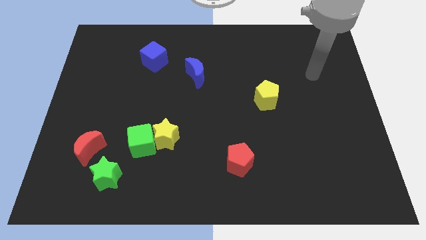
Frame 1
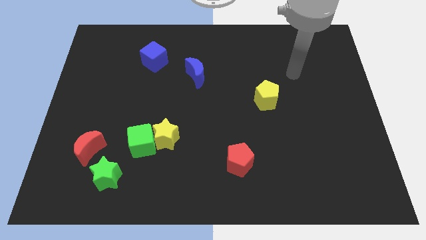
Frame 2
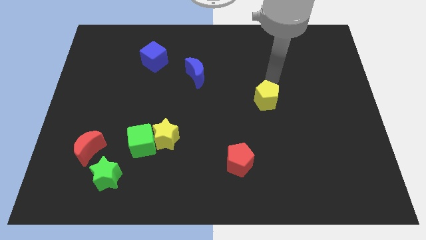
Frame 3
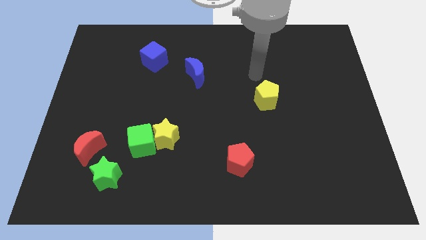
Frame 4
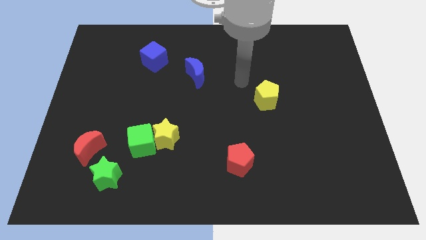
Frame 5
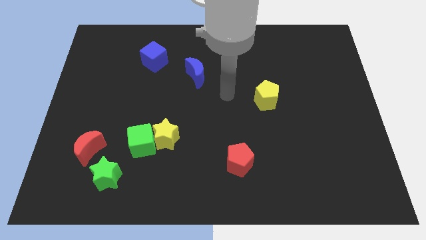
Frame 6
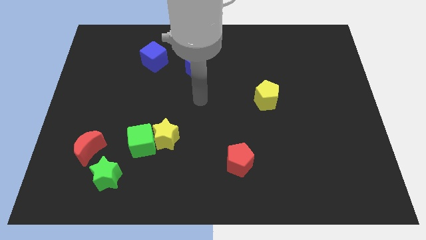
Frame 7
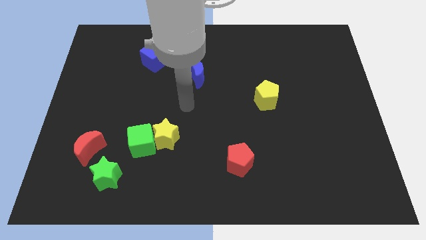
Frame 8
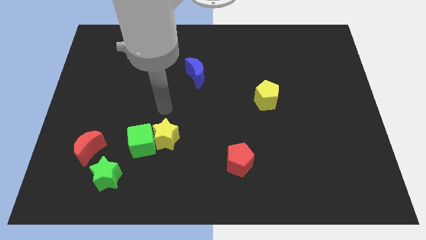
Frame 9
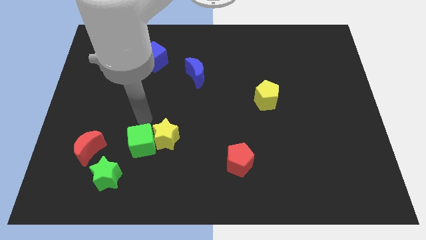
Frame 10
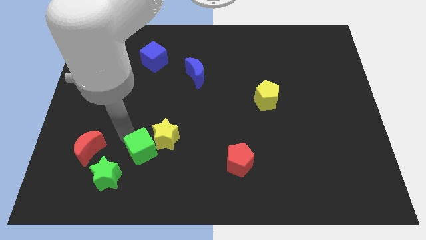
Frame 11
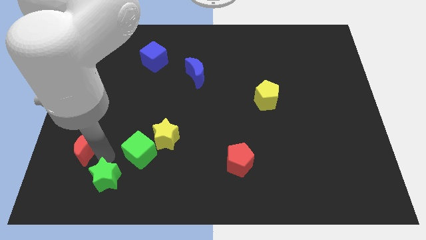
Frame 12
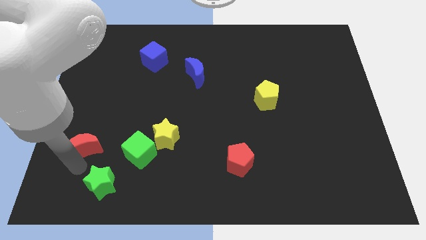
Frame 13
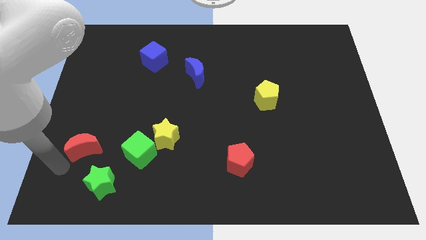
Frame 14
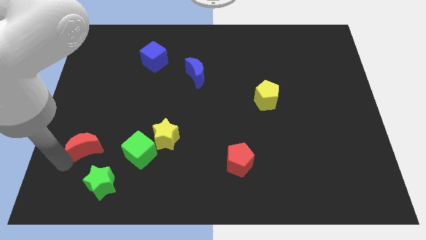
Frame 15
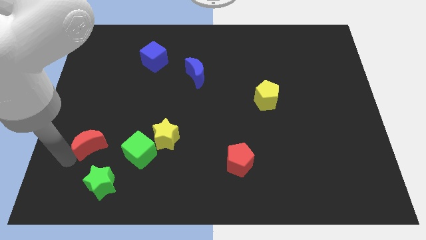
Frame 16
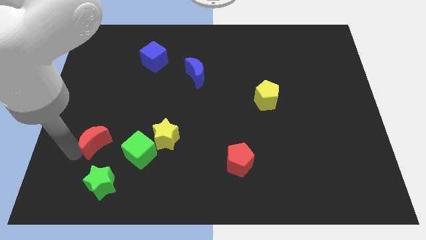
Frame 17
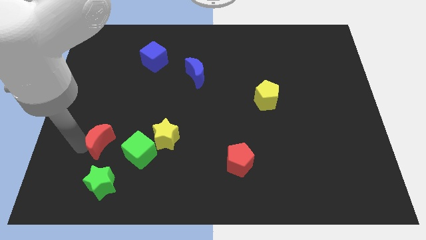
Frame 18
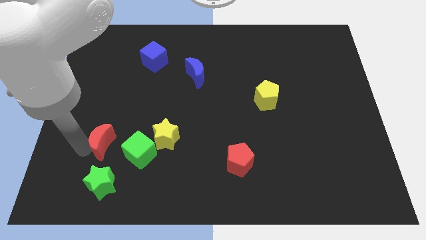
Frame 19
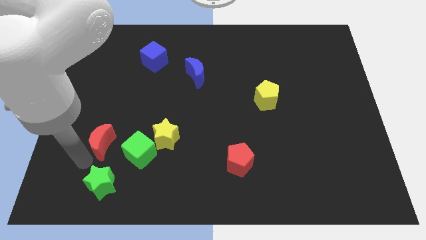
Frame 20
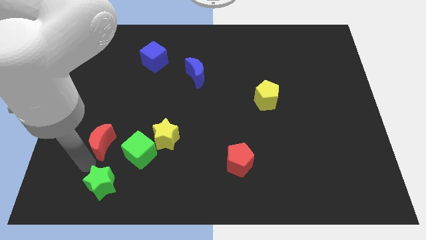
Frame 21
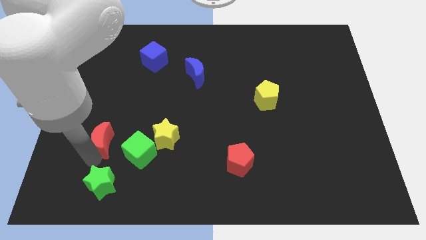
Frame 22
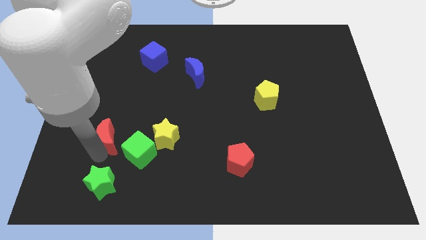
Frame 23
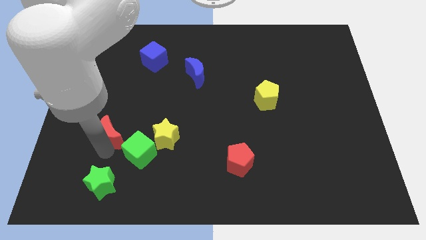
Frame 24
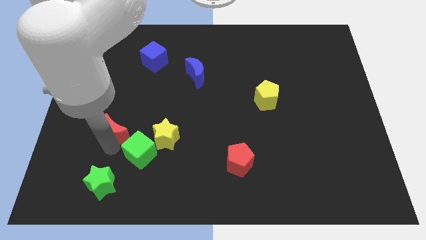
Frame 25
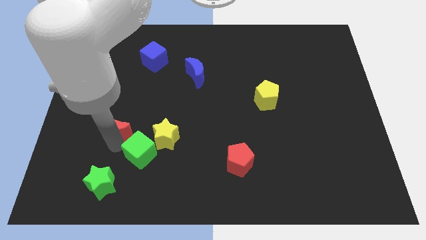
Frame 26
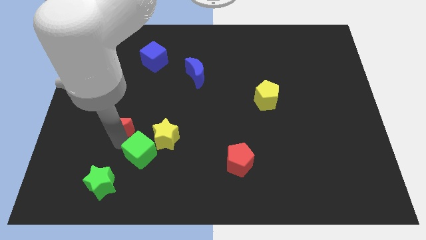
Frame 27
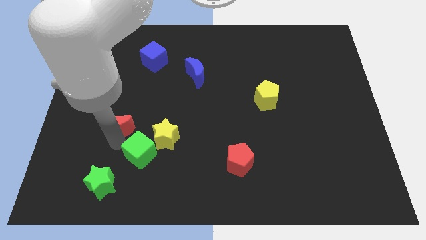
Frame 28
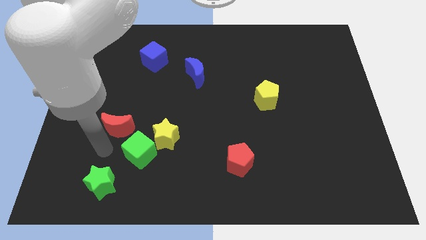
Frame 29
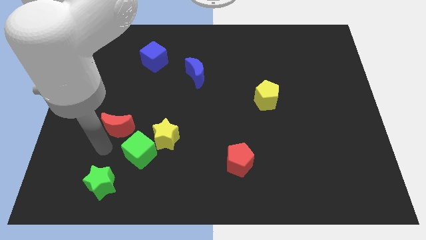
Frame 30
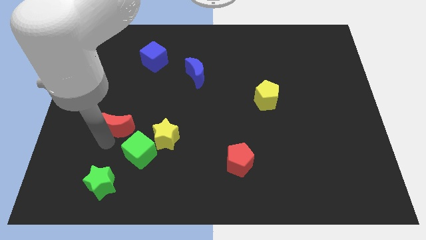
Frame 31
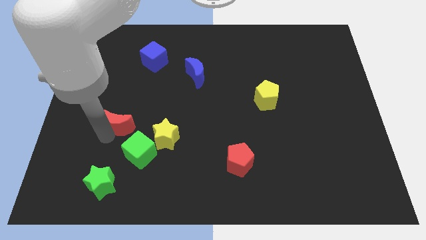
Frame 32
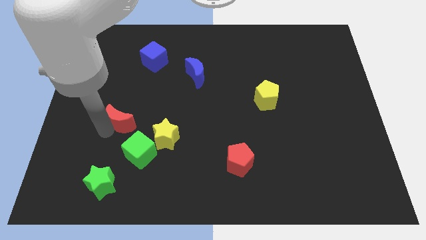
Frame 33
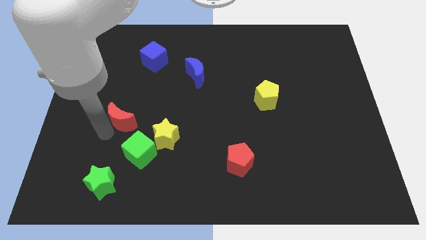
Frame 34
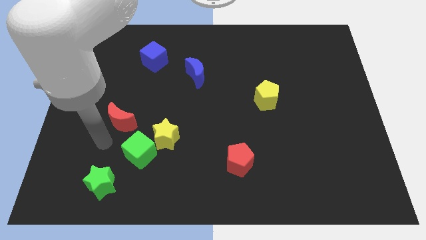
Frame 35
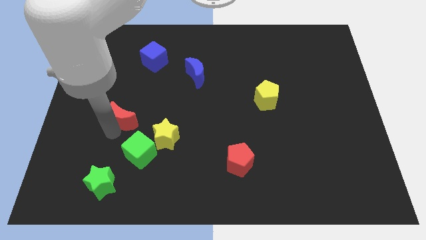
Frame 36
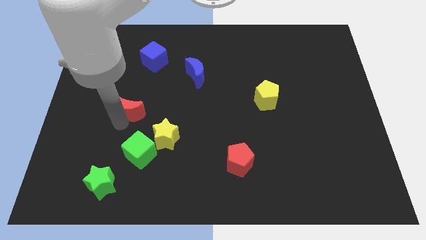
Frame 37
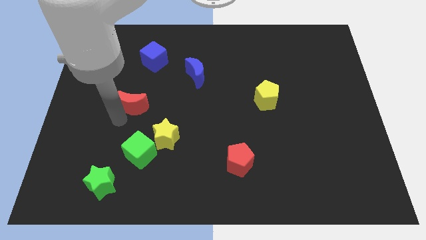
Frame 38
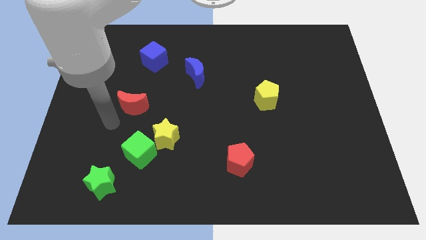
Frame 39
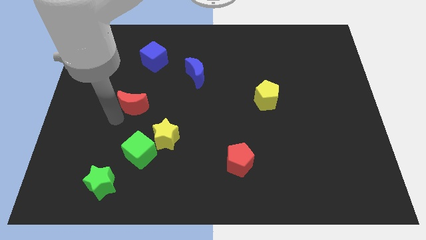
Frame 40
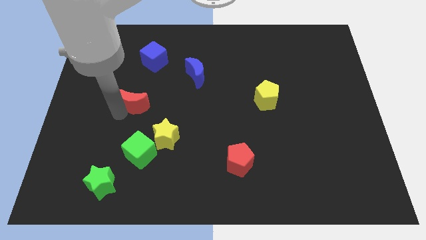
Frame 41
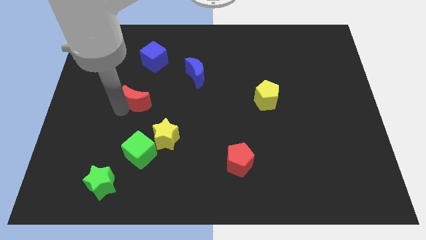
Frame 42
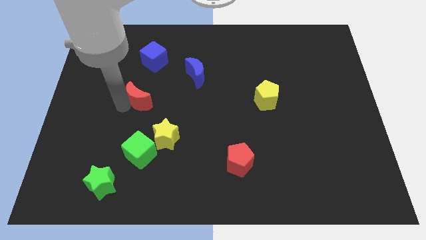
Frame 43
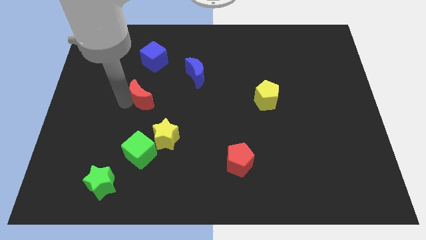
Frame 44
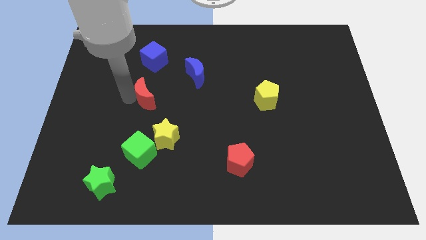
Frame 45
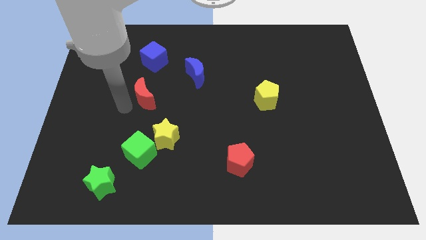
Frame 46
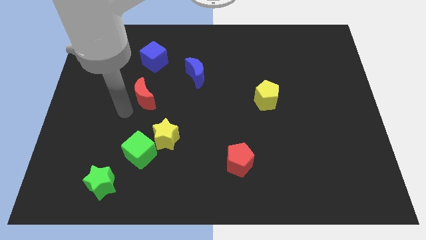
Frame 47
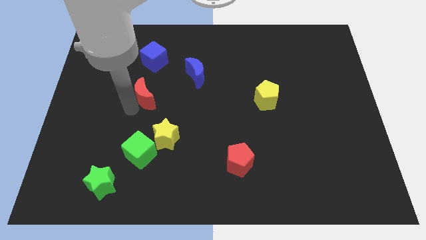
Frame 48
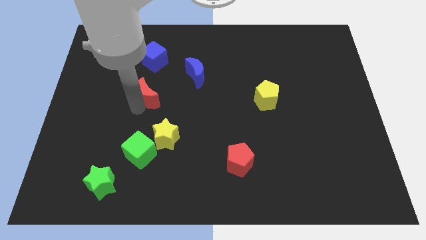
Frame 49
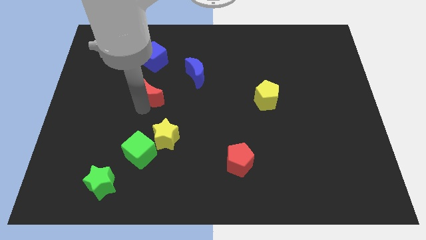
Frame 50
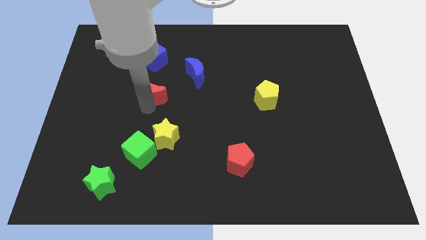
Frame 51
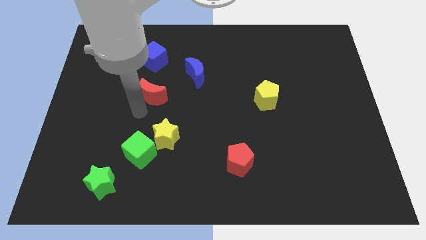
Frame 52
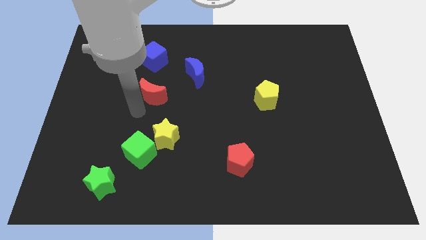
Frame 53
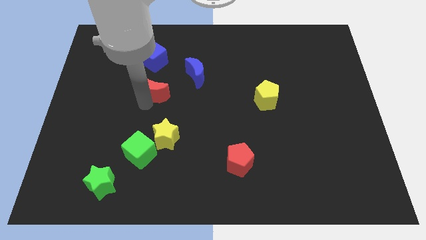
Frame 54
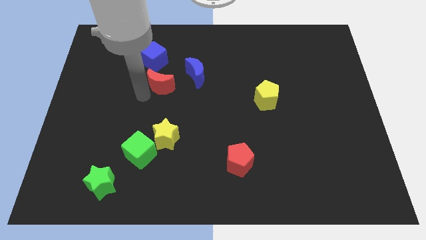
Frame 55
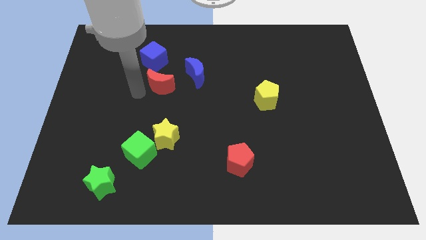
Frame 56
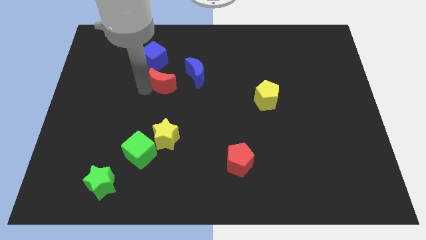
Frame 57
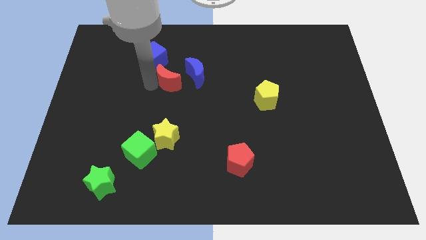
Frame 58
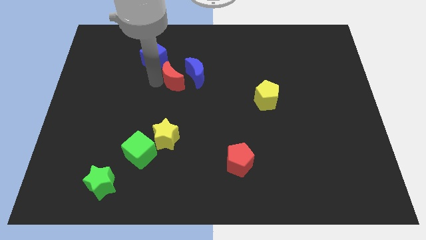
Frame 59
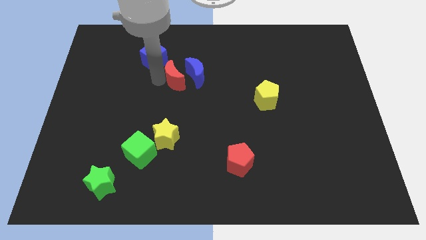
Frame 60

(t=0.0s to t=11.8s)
move the red moon to the blue moon

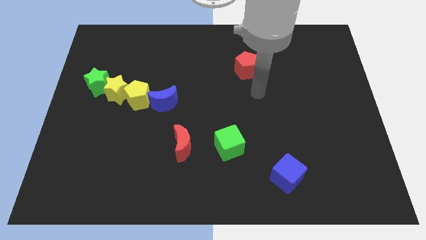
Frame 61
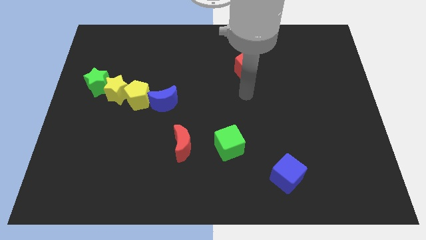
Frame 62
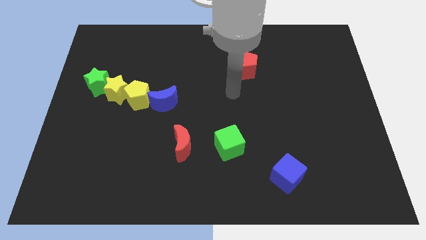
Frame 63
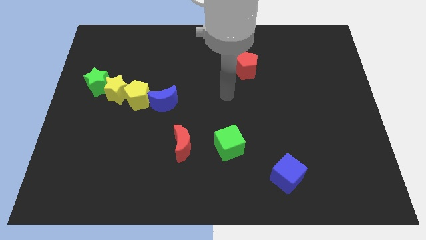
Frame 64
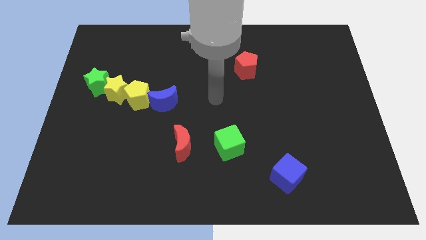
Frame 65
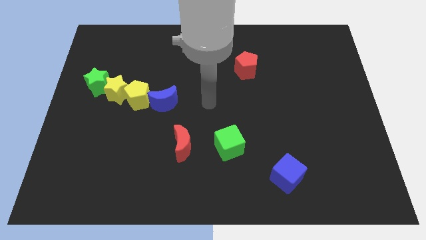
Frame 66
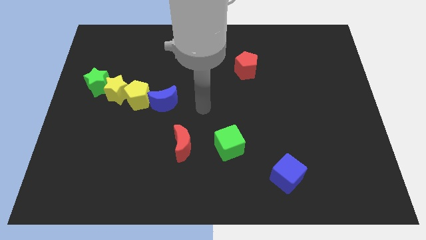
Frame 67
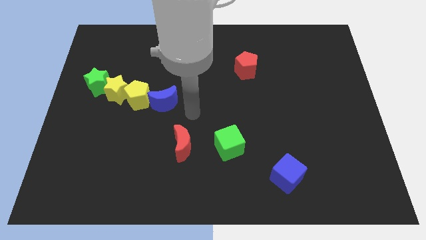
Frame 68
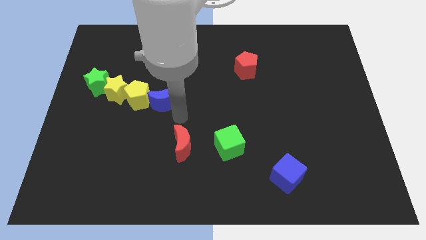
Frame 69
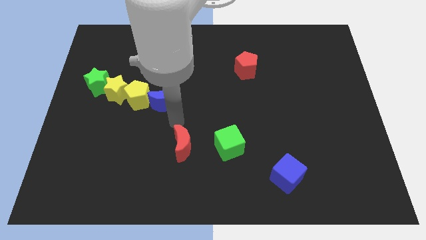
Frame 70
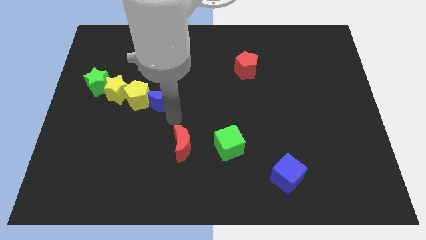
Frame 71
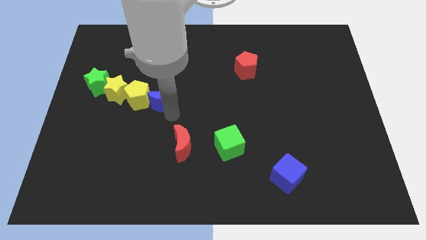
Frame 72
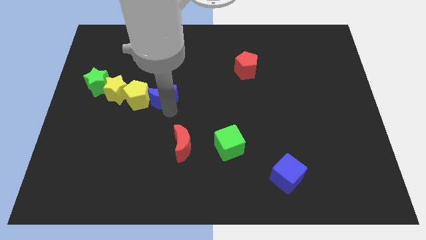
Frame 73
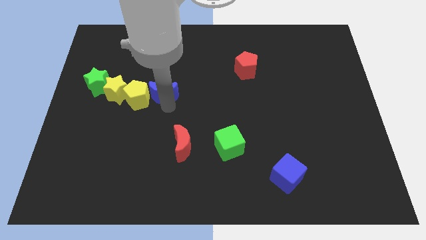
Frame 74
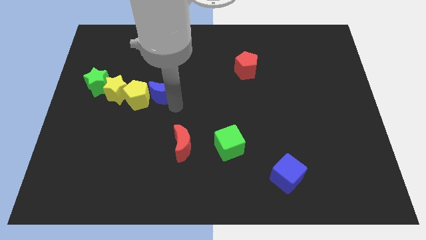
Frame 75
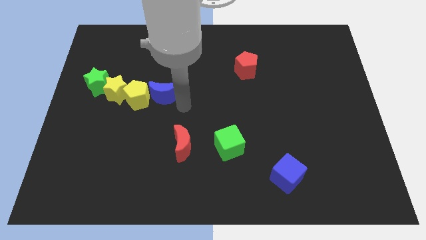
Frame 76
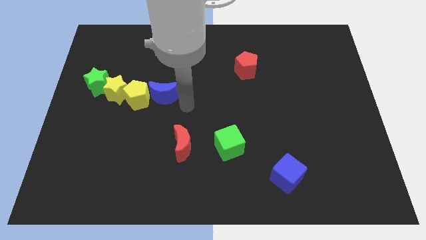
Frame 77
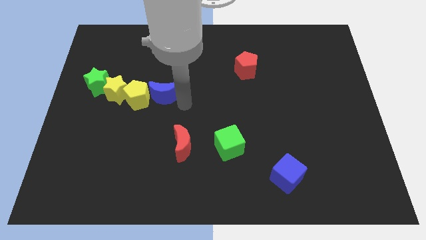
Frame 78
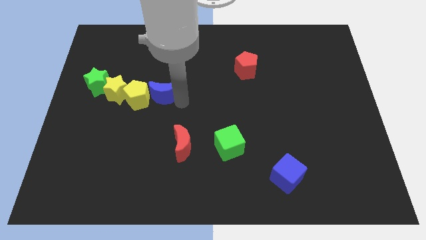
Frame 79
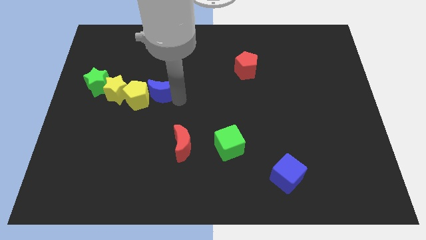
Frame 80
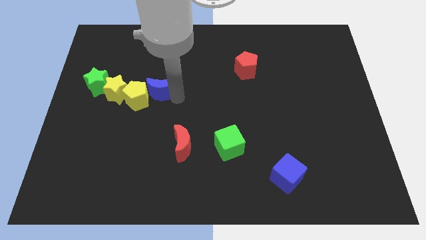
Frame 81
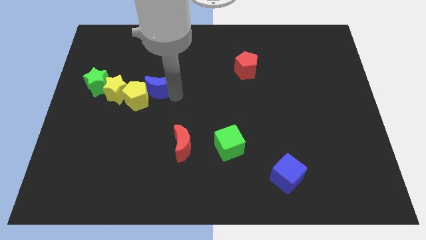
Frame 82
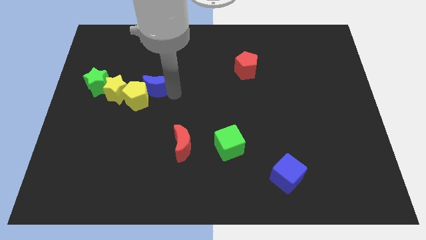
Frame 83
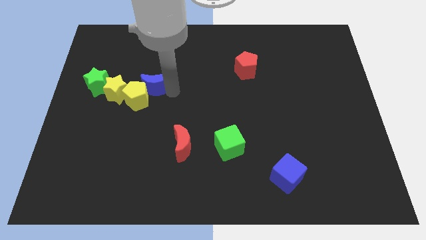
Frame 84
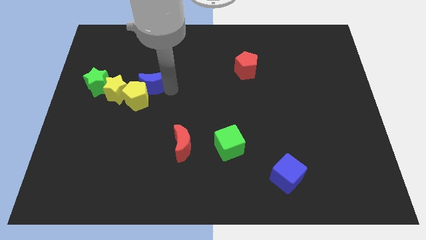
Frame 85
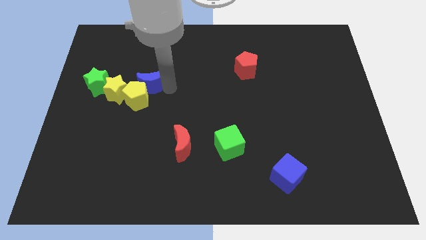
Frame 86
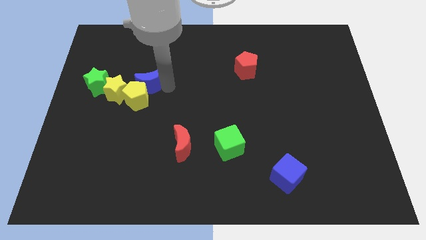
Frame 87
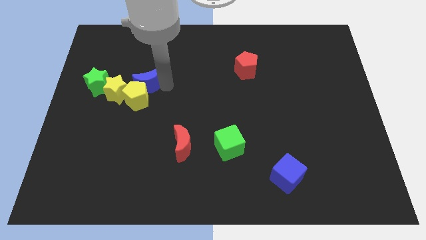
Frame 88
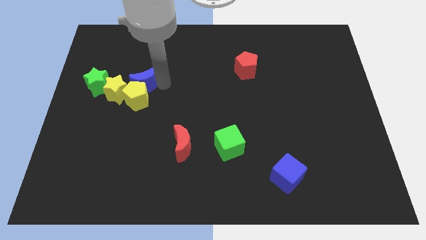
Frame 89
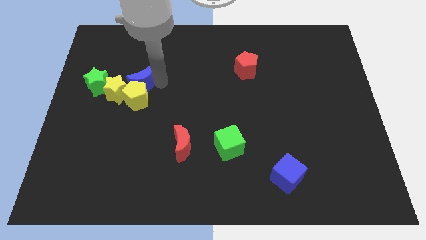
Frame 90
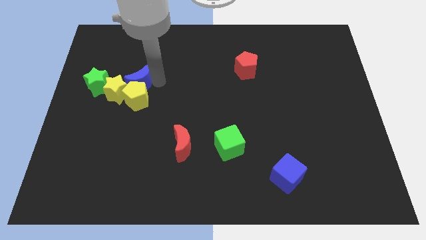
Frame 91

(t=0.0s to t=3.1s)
move the blue moon close to the yellow star
